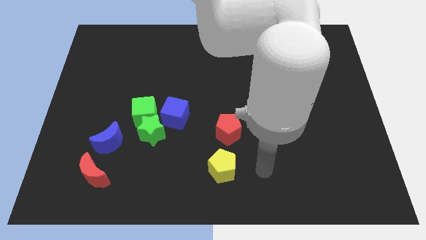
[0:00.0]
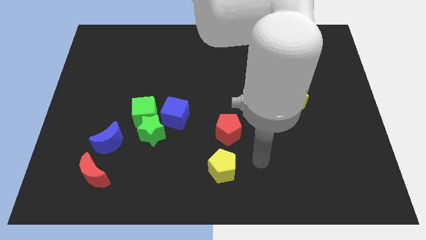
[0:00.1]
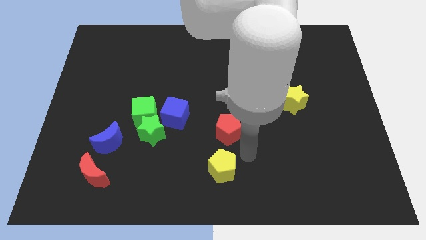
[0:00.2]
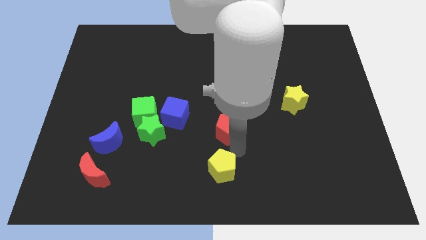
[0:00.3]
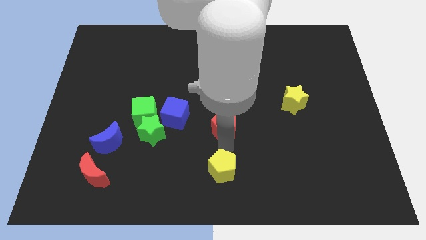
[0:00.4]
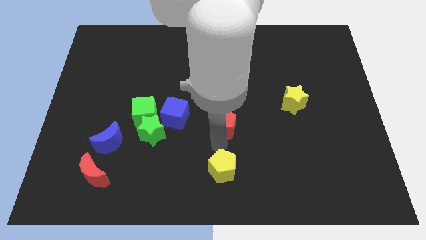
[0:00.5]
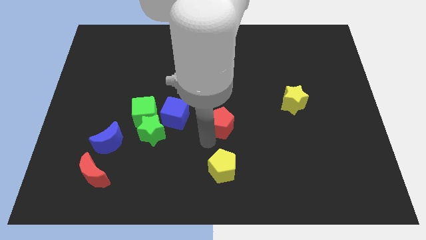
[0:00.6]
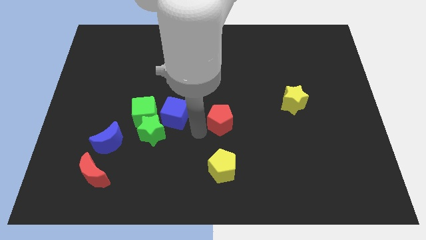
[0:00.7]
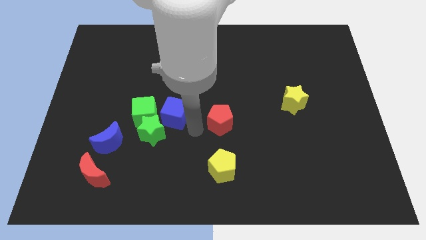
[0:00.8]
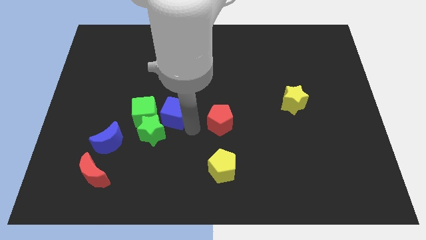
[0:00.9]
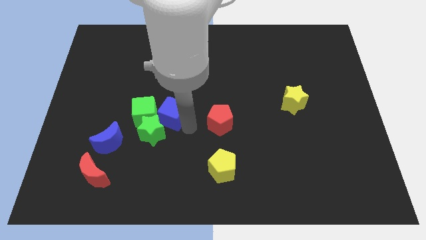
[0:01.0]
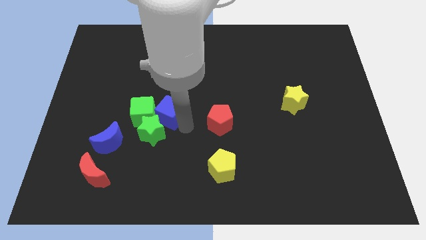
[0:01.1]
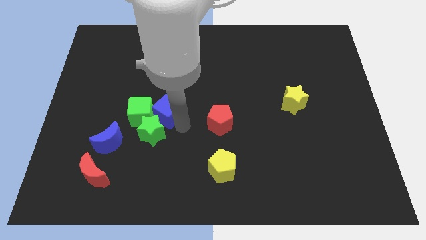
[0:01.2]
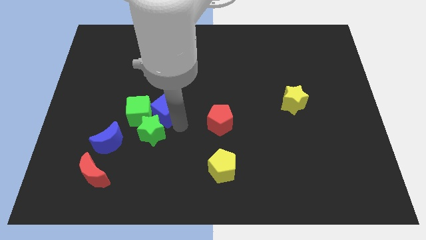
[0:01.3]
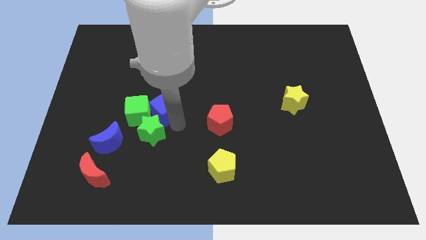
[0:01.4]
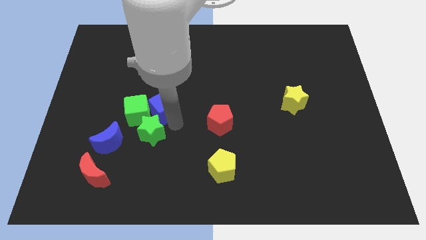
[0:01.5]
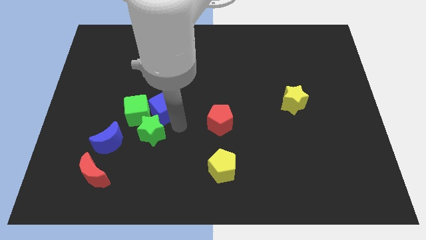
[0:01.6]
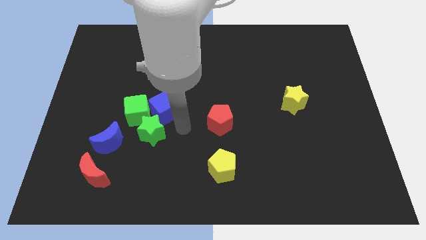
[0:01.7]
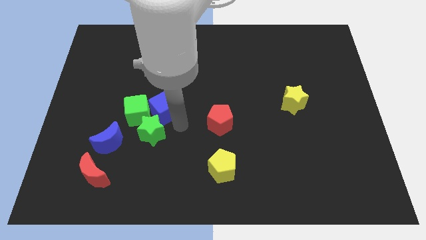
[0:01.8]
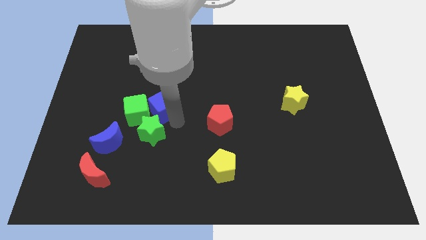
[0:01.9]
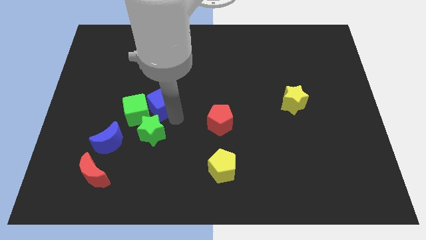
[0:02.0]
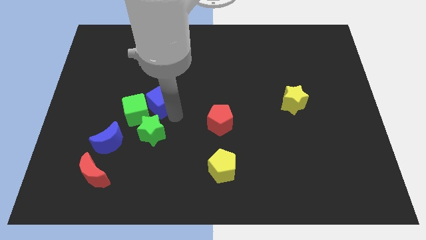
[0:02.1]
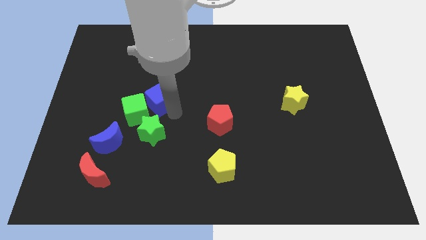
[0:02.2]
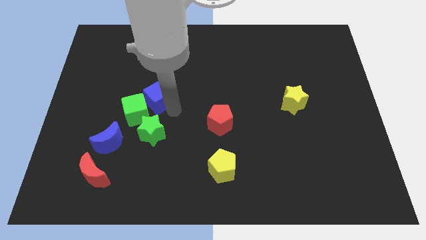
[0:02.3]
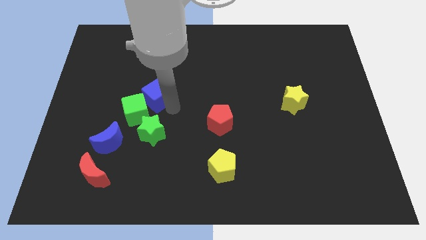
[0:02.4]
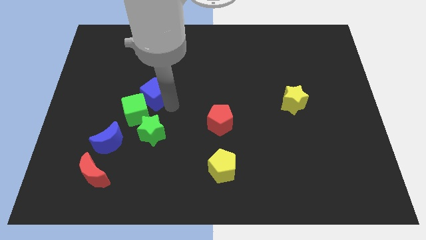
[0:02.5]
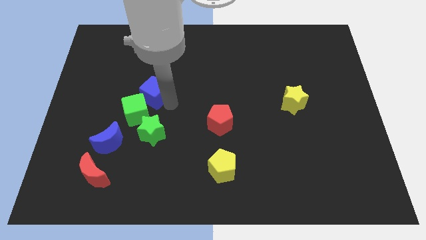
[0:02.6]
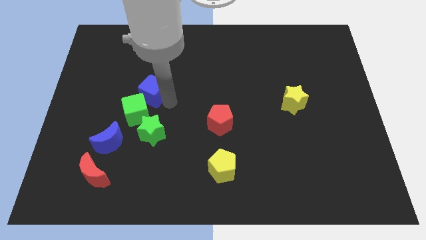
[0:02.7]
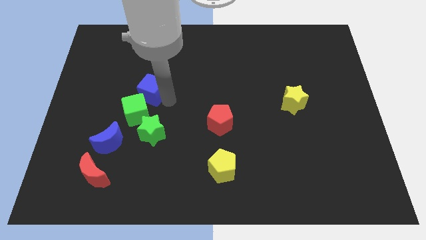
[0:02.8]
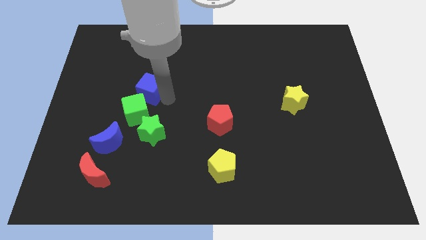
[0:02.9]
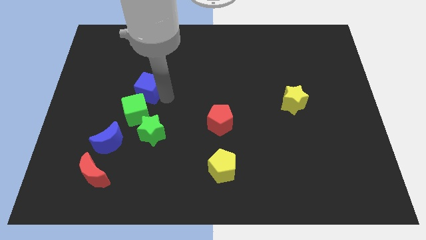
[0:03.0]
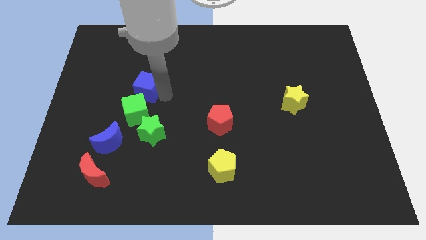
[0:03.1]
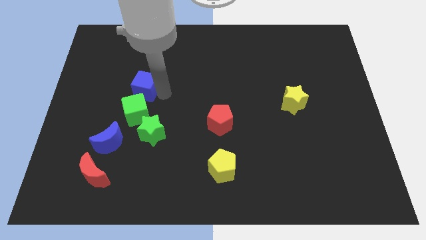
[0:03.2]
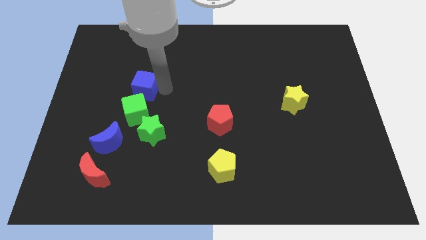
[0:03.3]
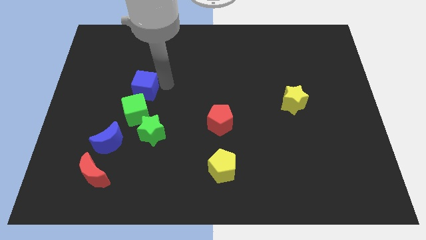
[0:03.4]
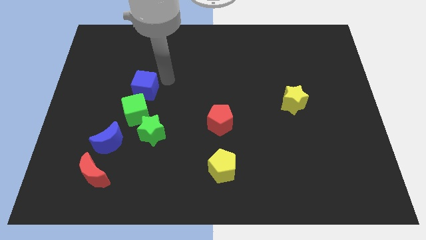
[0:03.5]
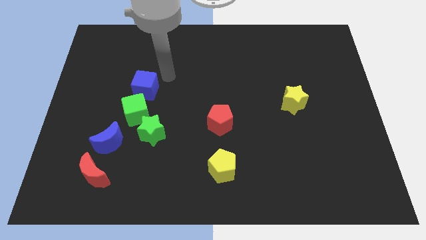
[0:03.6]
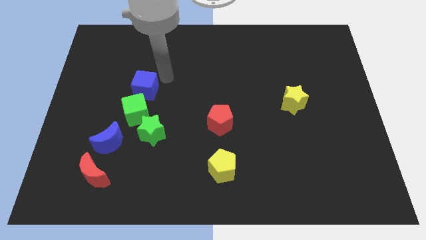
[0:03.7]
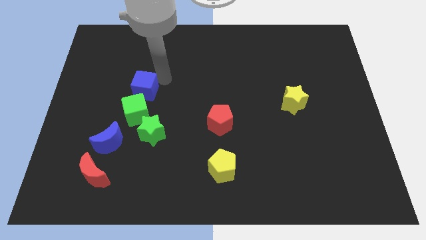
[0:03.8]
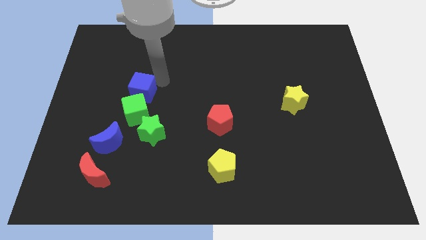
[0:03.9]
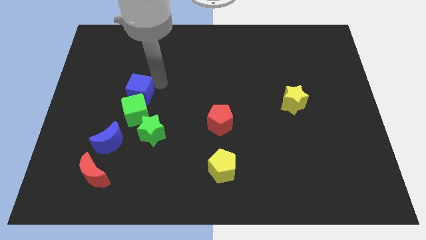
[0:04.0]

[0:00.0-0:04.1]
push the blue cube to the left a little

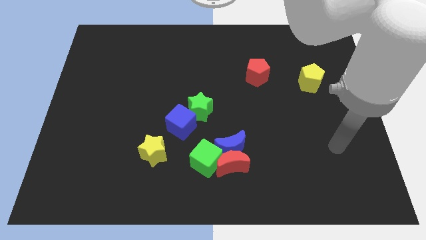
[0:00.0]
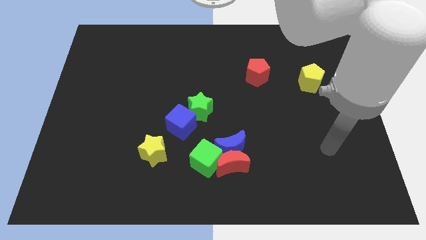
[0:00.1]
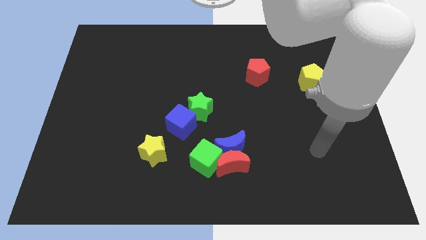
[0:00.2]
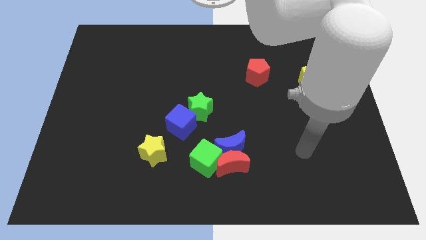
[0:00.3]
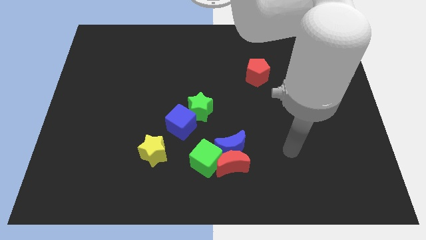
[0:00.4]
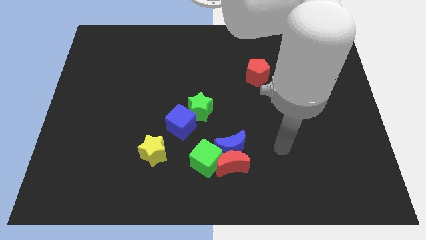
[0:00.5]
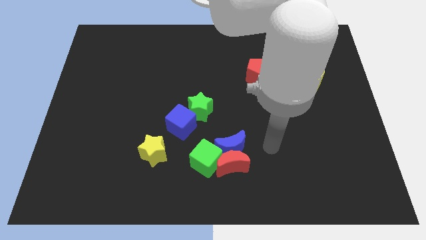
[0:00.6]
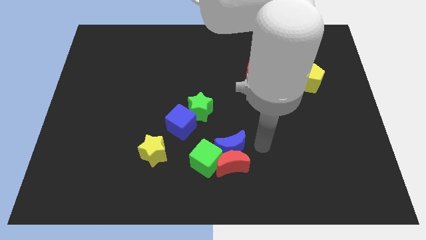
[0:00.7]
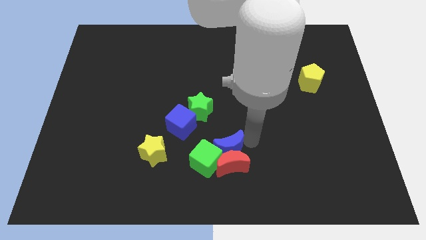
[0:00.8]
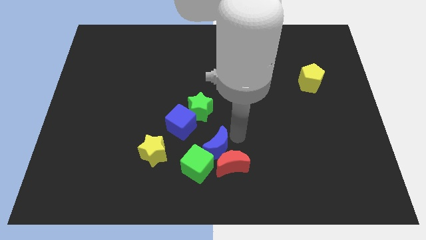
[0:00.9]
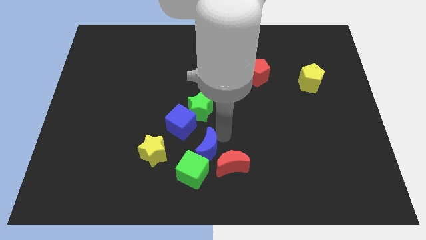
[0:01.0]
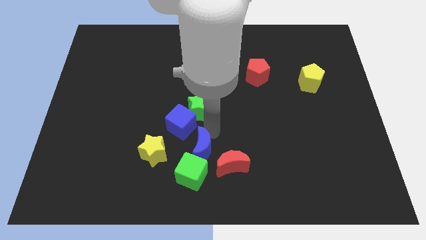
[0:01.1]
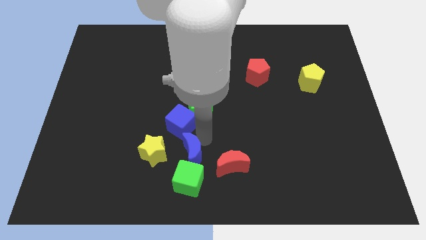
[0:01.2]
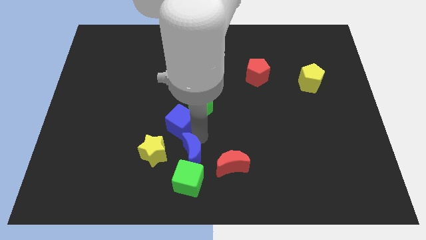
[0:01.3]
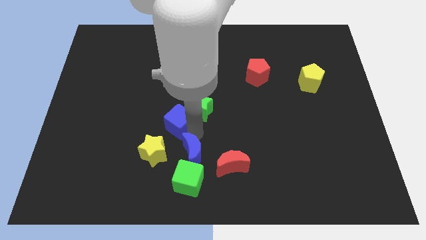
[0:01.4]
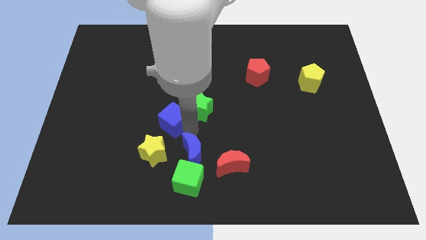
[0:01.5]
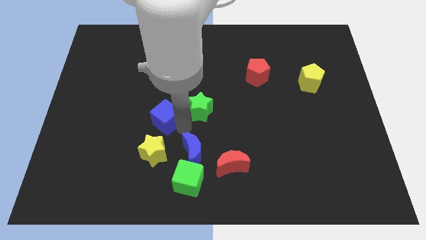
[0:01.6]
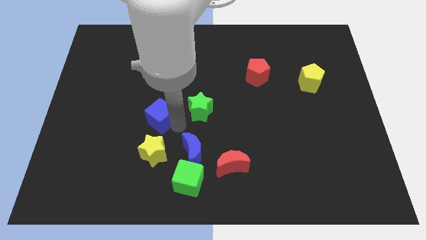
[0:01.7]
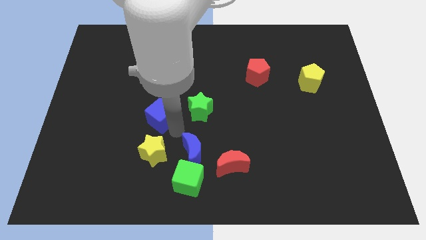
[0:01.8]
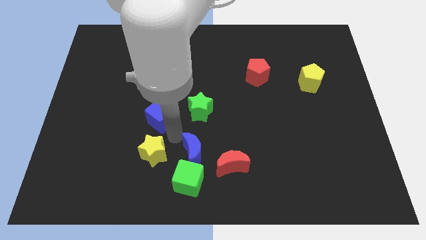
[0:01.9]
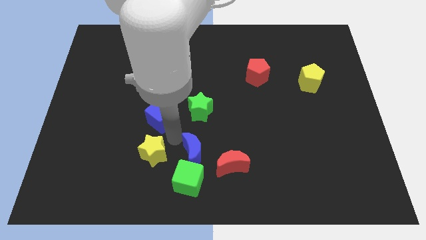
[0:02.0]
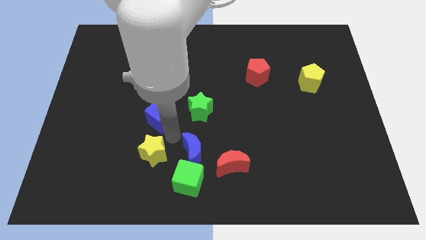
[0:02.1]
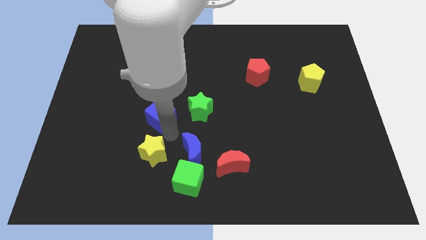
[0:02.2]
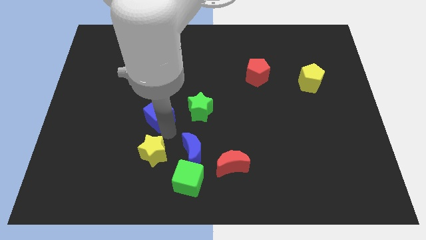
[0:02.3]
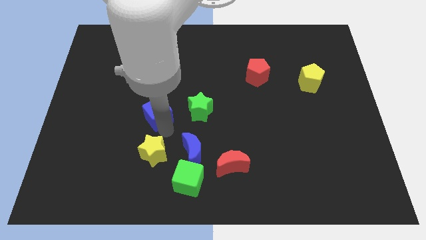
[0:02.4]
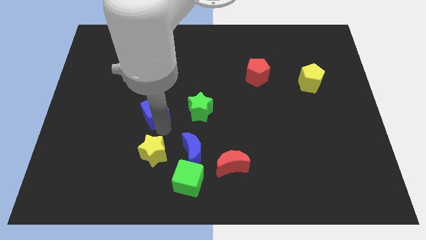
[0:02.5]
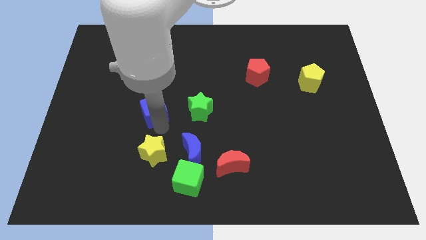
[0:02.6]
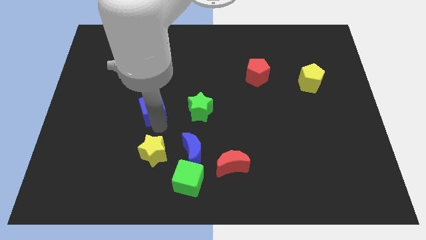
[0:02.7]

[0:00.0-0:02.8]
slightly move the blue cube diagonally upwards and to the left

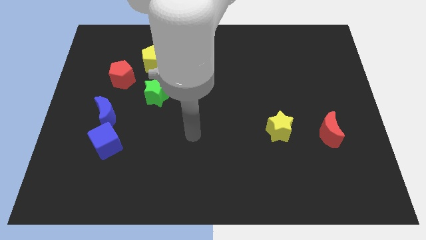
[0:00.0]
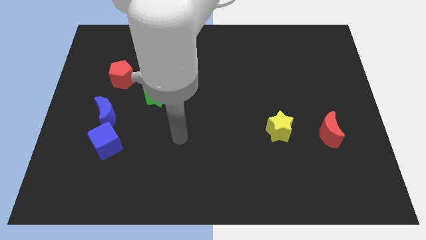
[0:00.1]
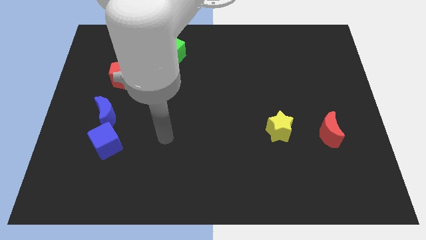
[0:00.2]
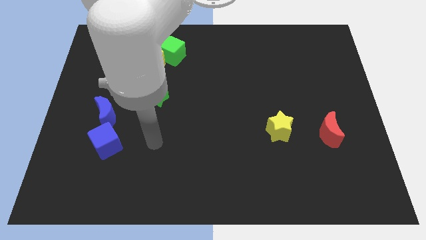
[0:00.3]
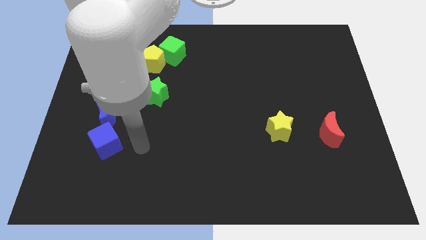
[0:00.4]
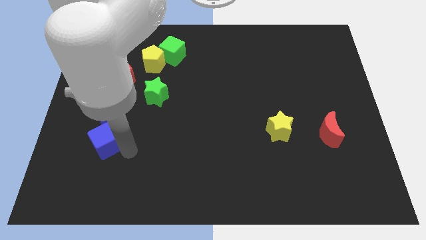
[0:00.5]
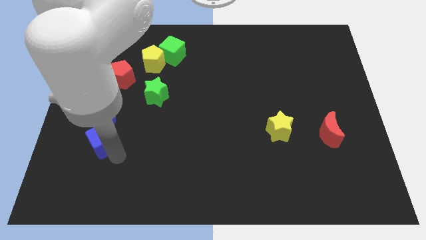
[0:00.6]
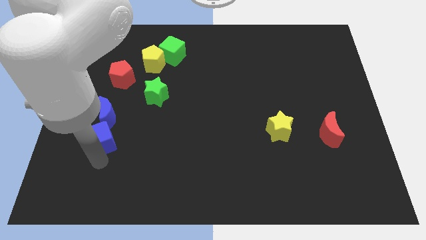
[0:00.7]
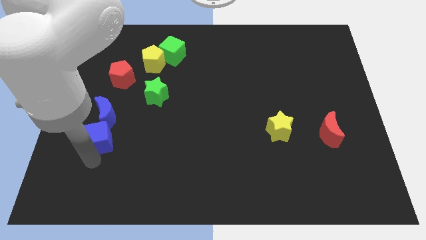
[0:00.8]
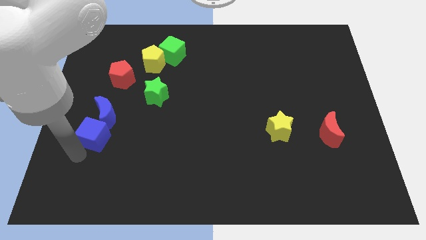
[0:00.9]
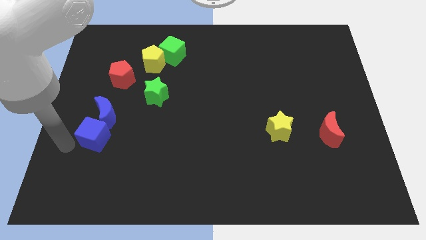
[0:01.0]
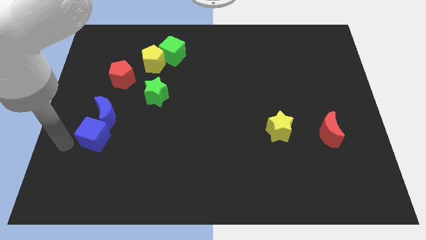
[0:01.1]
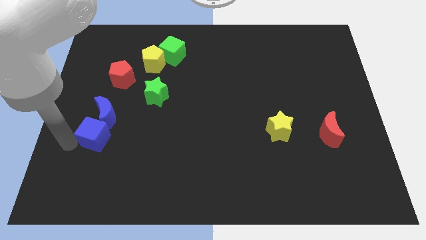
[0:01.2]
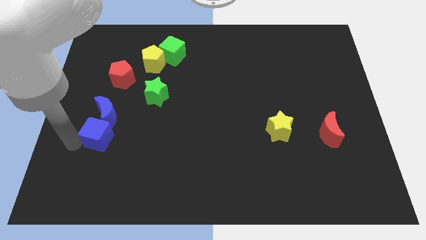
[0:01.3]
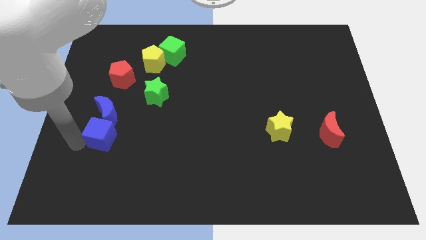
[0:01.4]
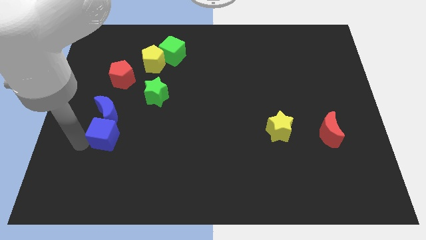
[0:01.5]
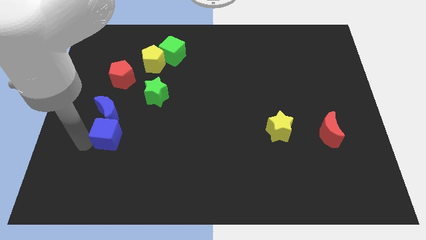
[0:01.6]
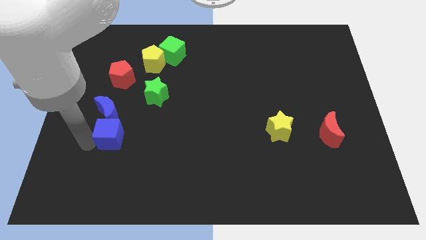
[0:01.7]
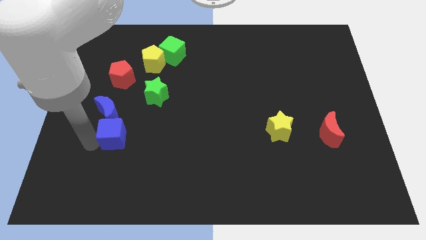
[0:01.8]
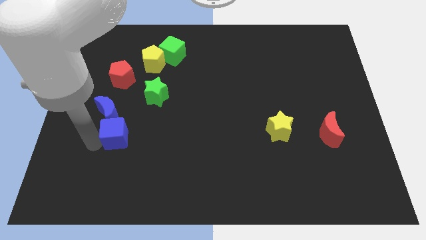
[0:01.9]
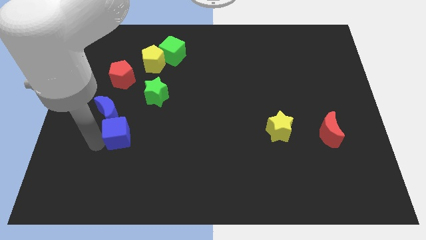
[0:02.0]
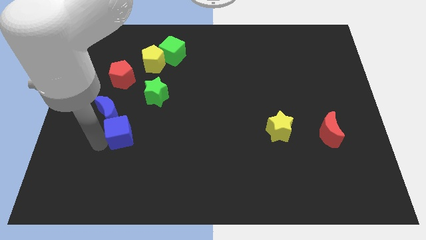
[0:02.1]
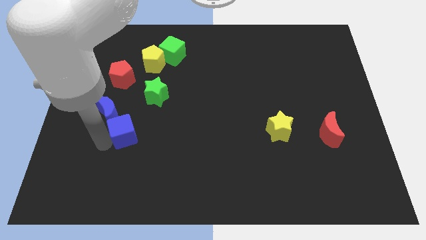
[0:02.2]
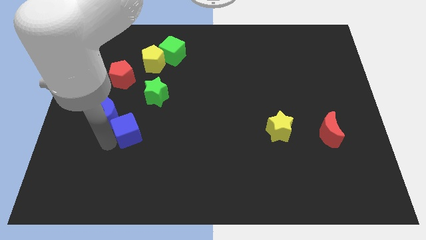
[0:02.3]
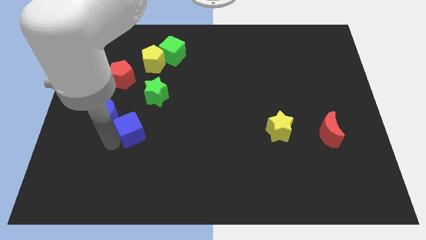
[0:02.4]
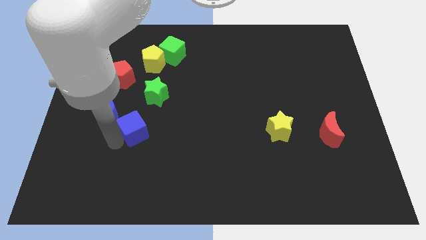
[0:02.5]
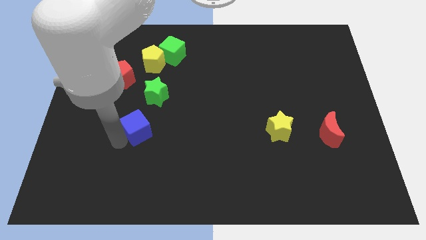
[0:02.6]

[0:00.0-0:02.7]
slightly move the blue cube up and to the right
